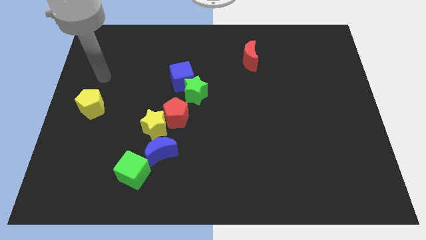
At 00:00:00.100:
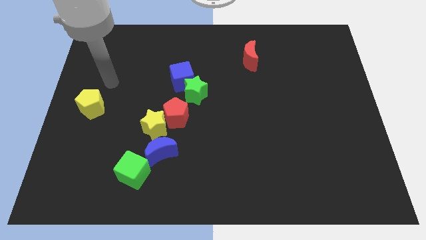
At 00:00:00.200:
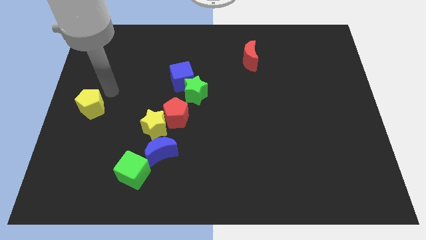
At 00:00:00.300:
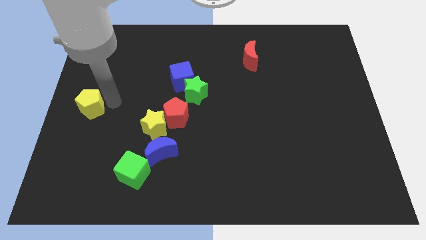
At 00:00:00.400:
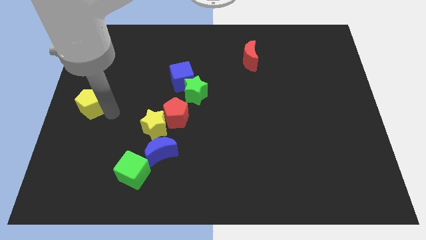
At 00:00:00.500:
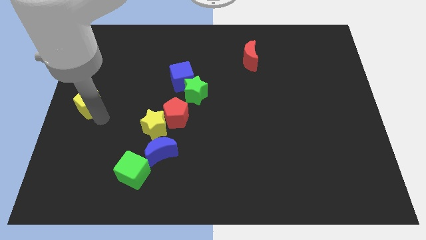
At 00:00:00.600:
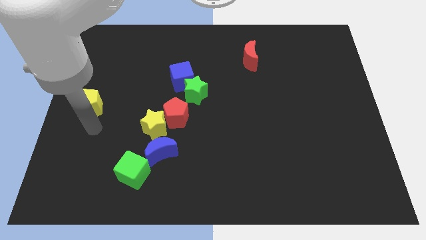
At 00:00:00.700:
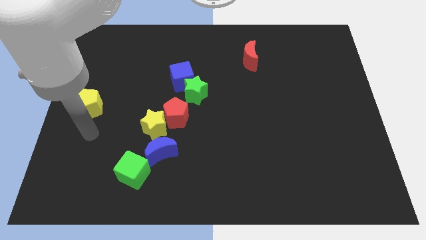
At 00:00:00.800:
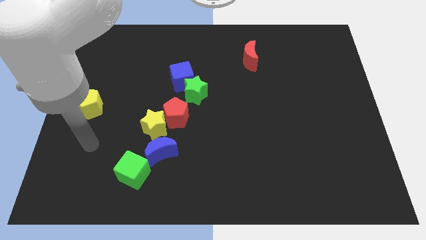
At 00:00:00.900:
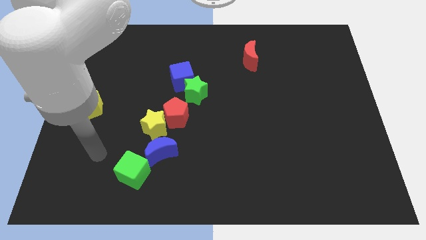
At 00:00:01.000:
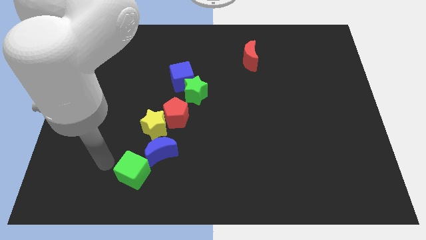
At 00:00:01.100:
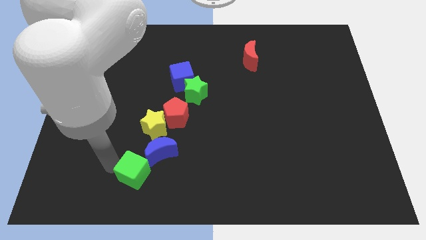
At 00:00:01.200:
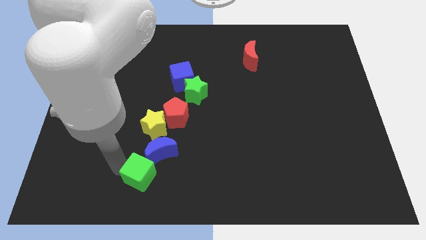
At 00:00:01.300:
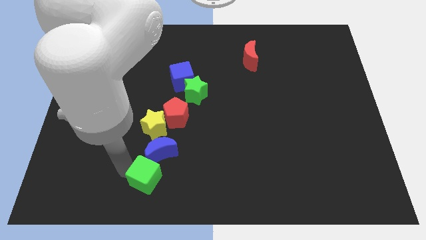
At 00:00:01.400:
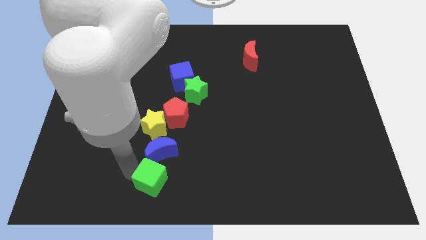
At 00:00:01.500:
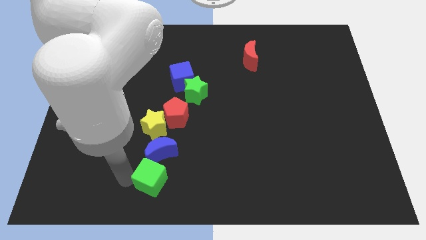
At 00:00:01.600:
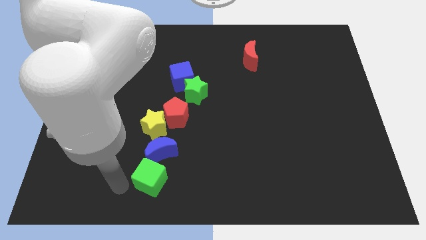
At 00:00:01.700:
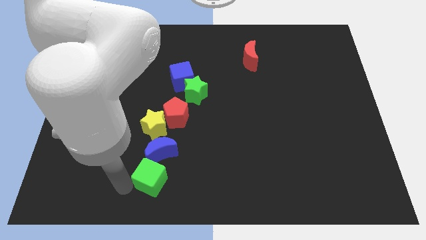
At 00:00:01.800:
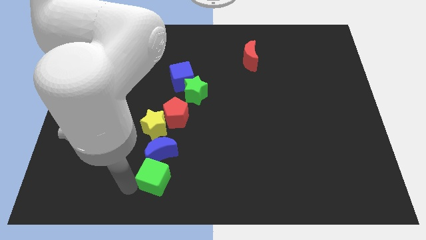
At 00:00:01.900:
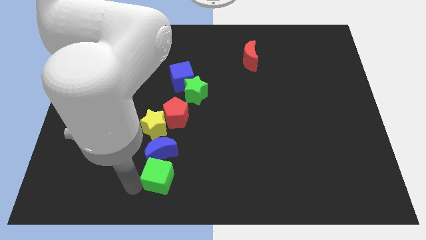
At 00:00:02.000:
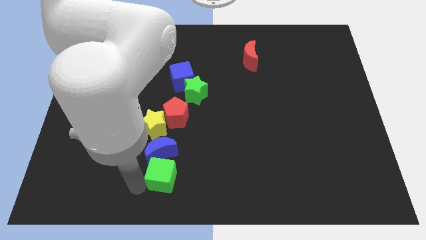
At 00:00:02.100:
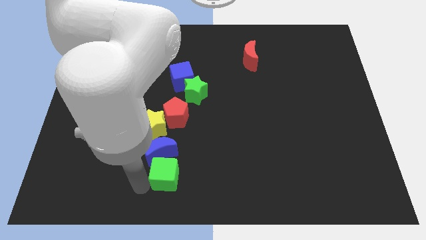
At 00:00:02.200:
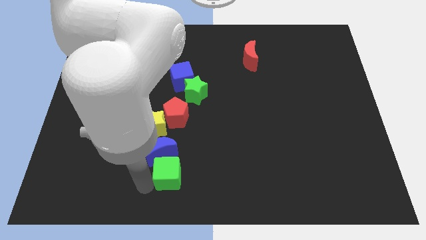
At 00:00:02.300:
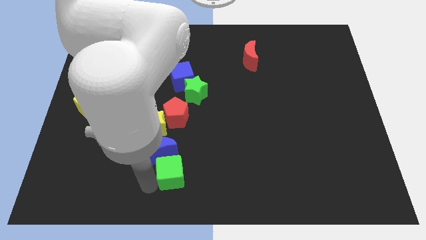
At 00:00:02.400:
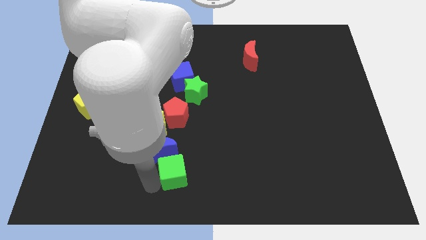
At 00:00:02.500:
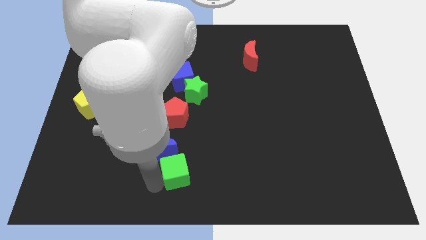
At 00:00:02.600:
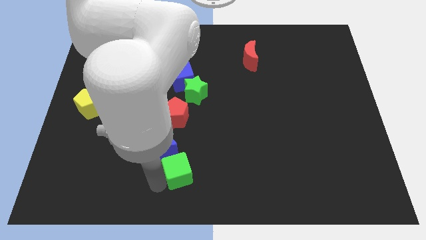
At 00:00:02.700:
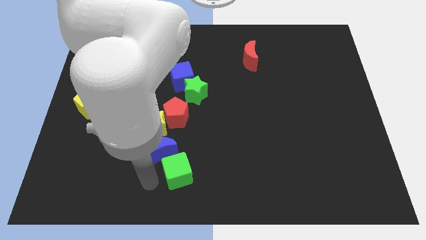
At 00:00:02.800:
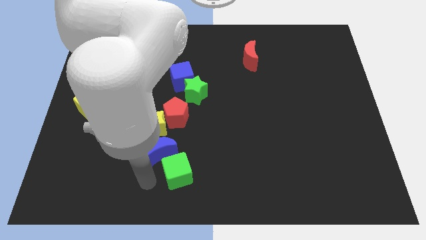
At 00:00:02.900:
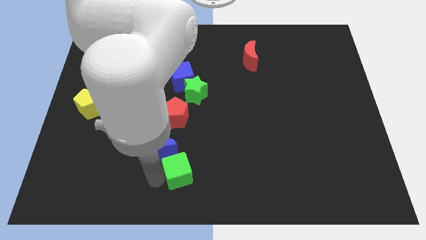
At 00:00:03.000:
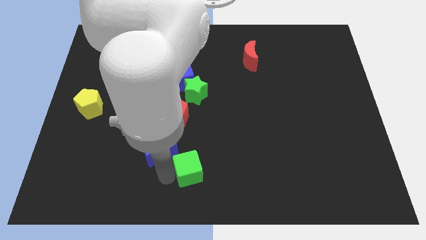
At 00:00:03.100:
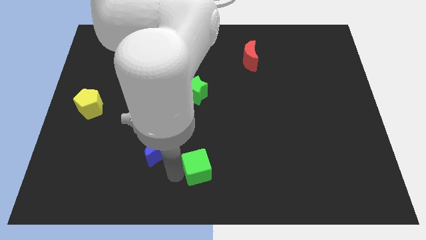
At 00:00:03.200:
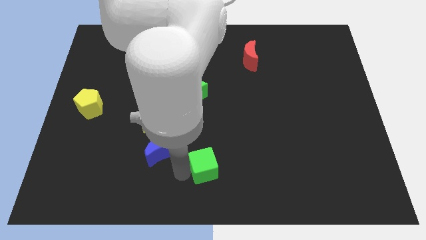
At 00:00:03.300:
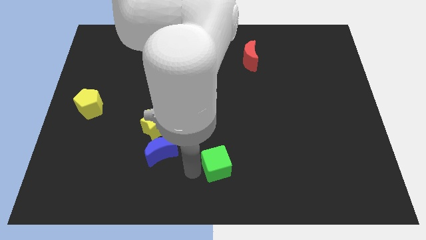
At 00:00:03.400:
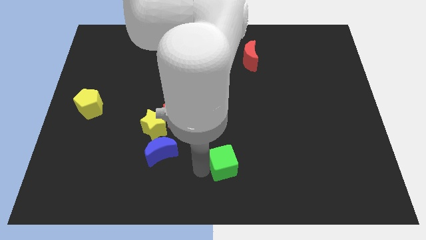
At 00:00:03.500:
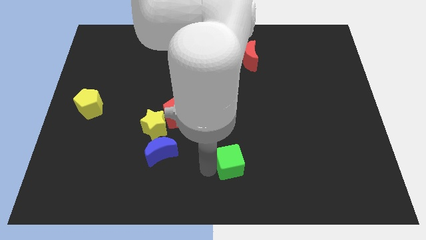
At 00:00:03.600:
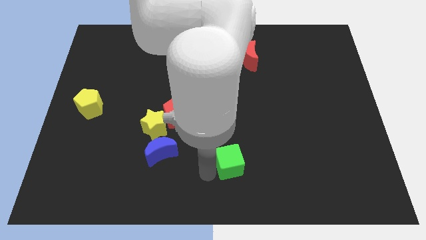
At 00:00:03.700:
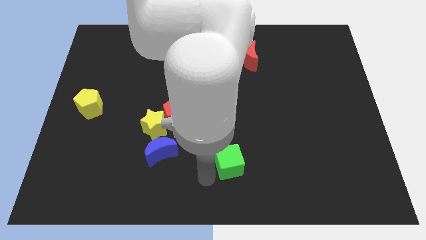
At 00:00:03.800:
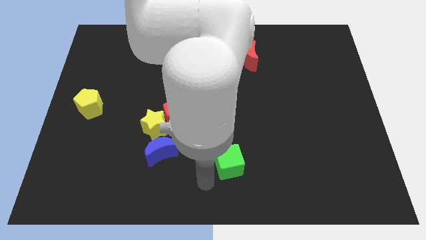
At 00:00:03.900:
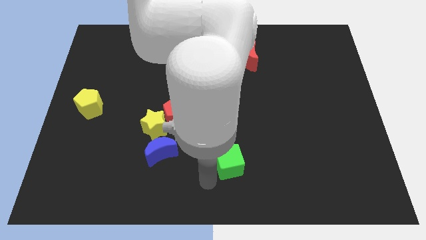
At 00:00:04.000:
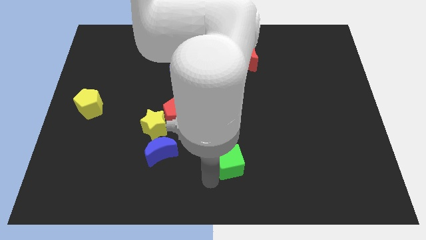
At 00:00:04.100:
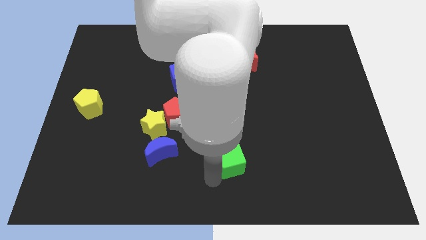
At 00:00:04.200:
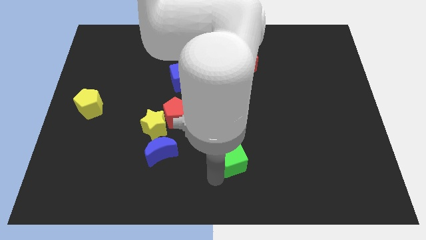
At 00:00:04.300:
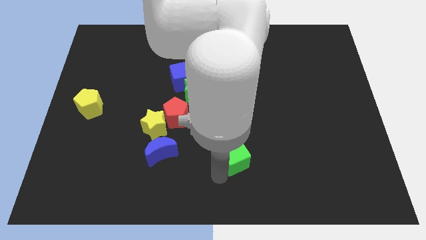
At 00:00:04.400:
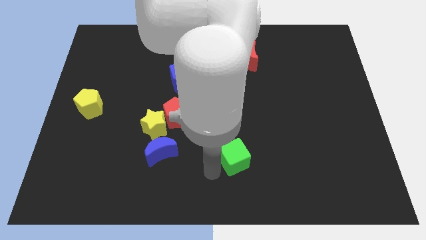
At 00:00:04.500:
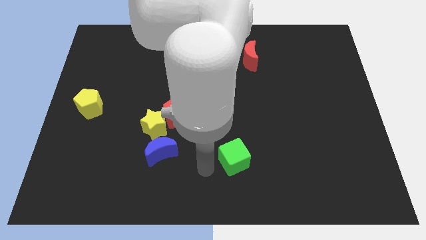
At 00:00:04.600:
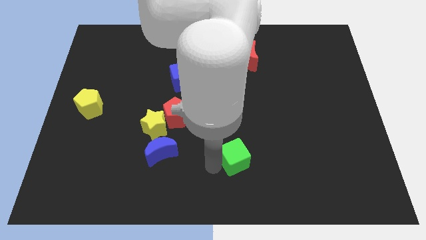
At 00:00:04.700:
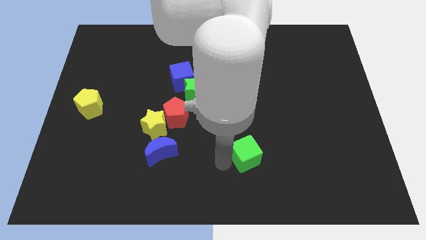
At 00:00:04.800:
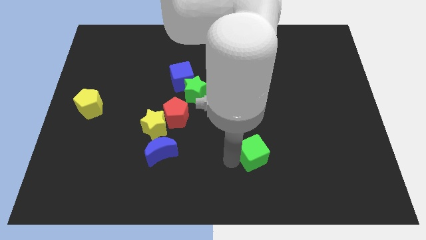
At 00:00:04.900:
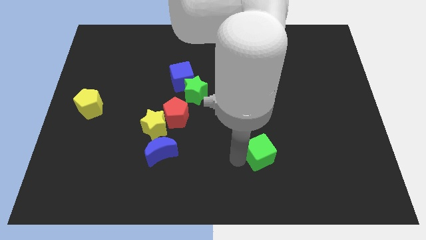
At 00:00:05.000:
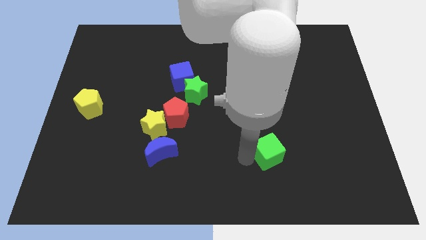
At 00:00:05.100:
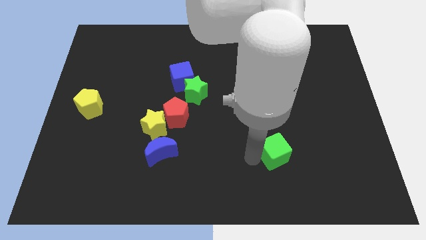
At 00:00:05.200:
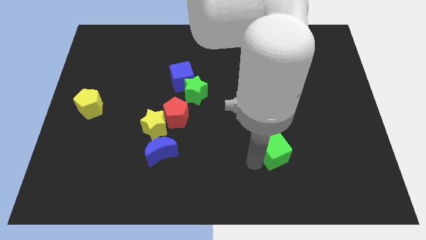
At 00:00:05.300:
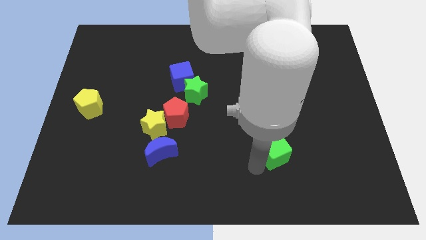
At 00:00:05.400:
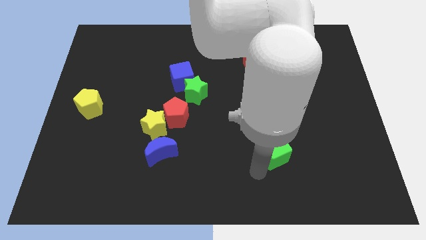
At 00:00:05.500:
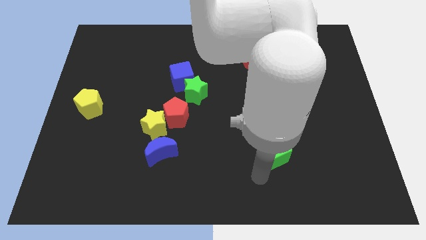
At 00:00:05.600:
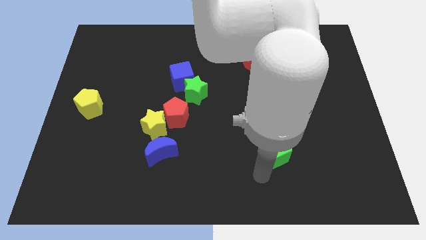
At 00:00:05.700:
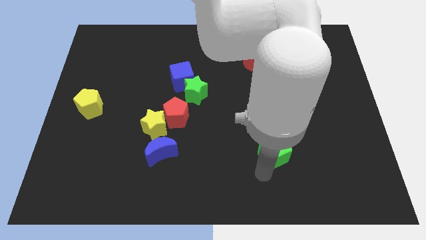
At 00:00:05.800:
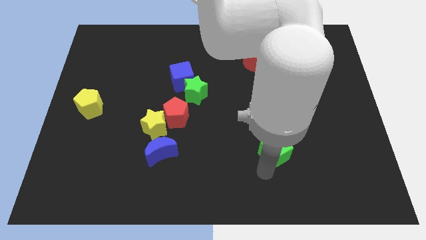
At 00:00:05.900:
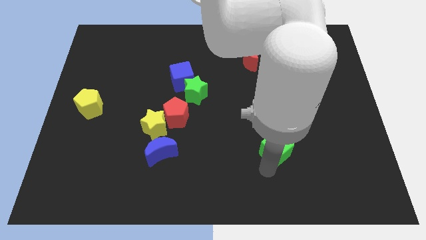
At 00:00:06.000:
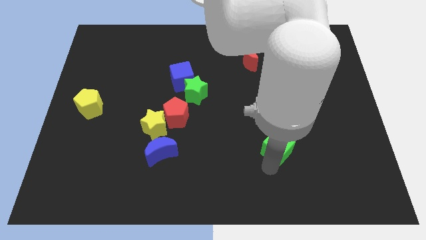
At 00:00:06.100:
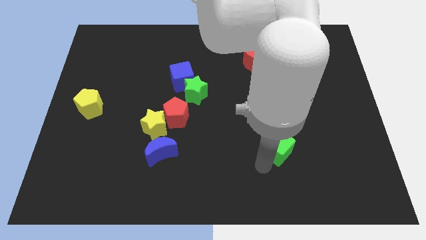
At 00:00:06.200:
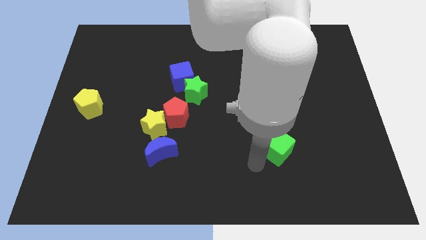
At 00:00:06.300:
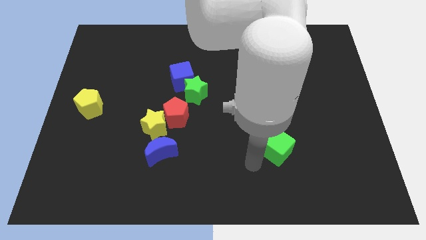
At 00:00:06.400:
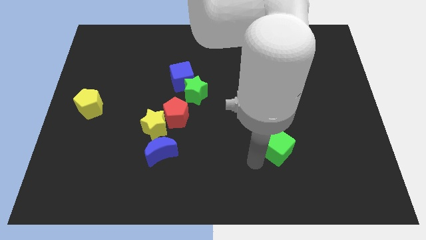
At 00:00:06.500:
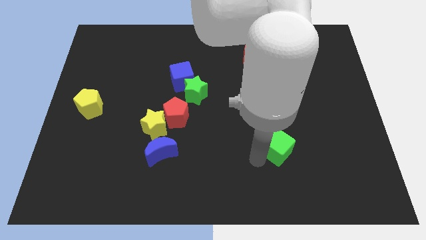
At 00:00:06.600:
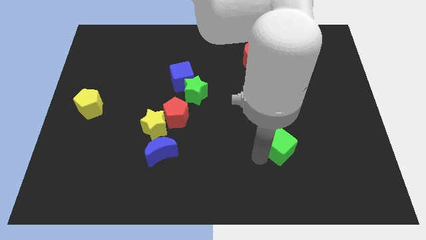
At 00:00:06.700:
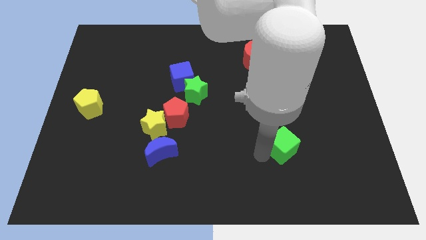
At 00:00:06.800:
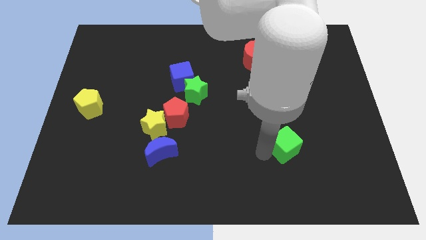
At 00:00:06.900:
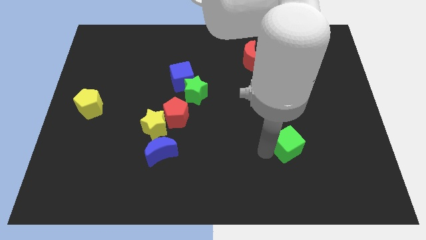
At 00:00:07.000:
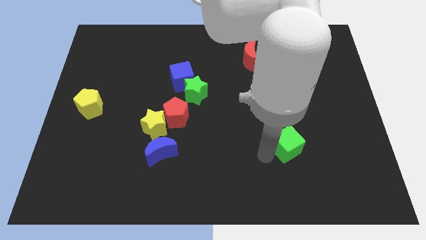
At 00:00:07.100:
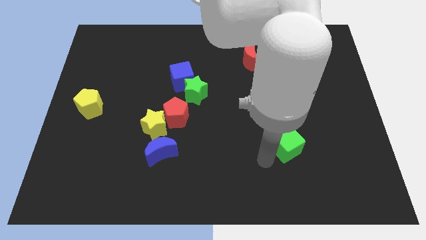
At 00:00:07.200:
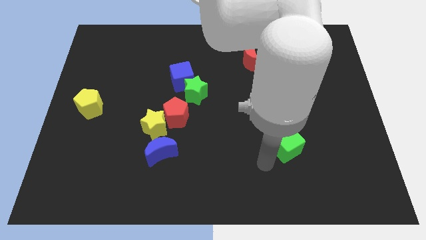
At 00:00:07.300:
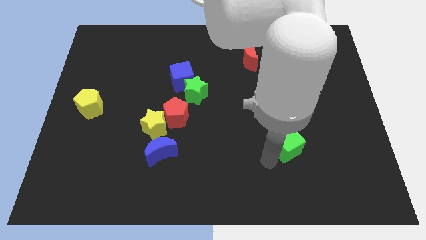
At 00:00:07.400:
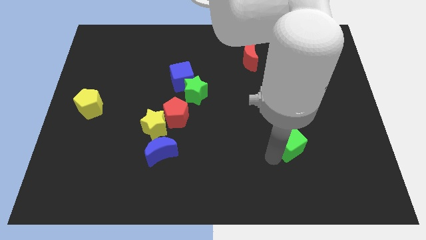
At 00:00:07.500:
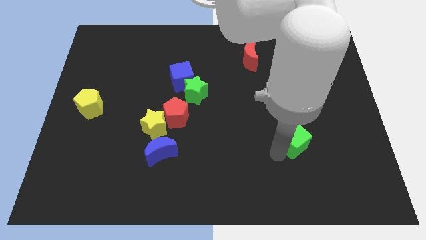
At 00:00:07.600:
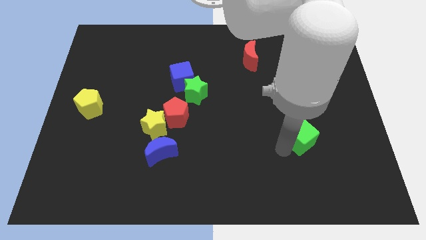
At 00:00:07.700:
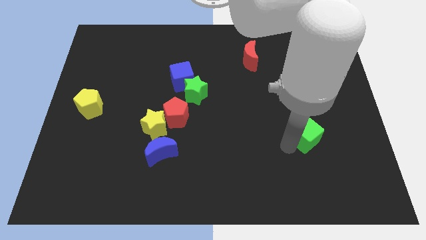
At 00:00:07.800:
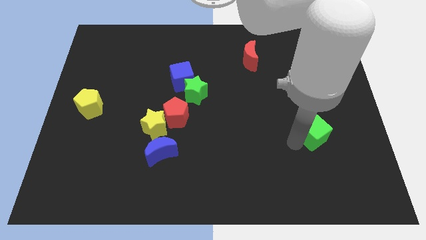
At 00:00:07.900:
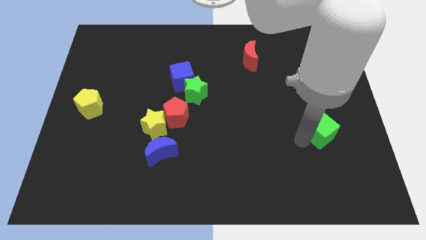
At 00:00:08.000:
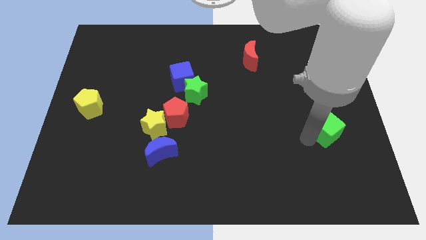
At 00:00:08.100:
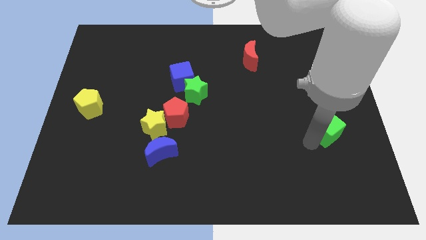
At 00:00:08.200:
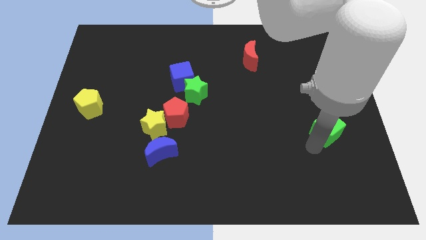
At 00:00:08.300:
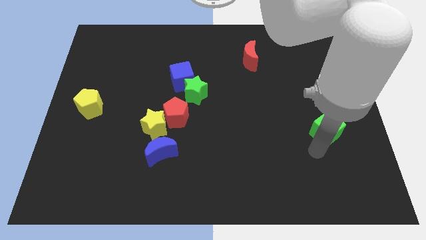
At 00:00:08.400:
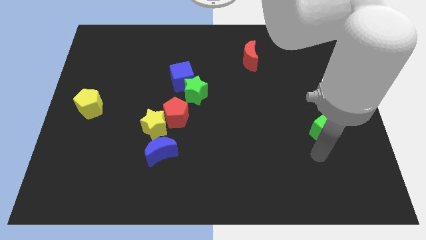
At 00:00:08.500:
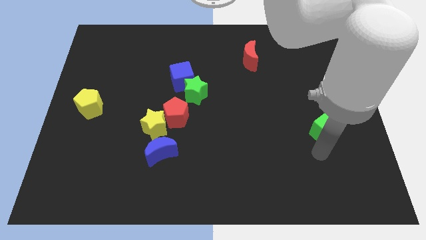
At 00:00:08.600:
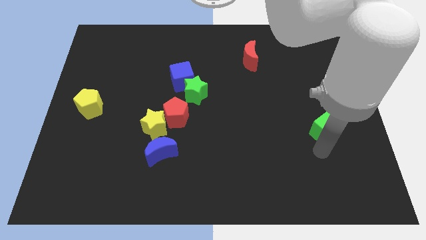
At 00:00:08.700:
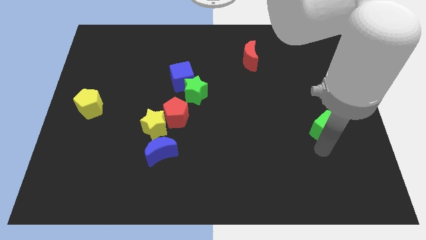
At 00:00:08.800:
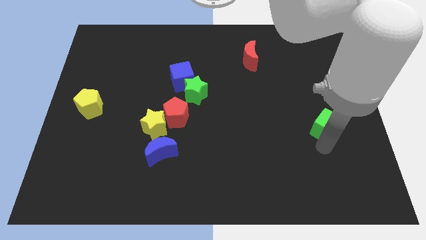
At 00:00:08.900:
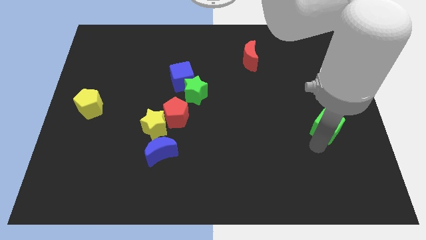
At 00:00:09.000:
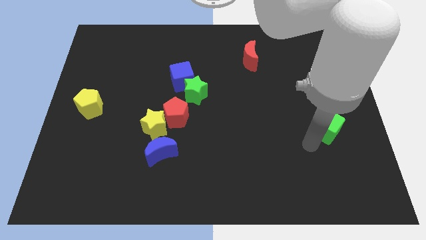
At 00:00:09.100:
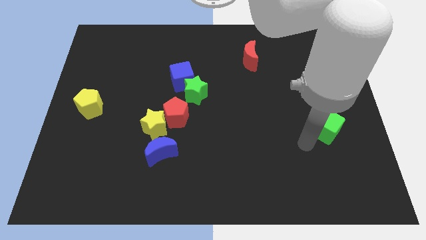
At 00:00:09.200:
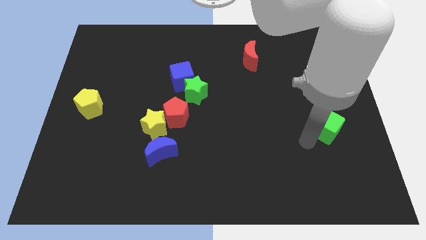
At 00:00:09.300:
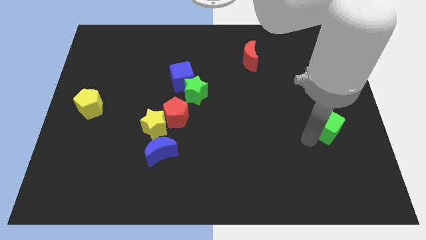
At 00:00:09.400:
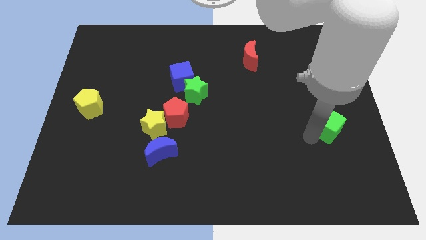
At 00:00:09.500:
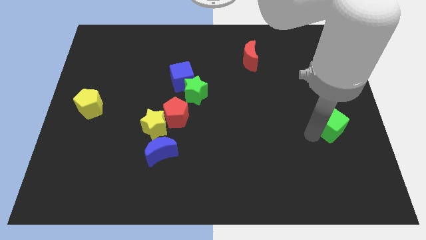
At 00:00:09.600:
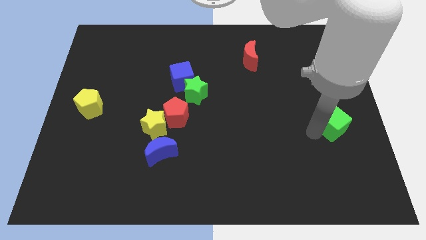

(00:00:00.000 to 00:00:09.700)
push the green cube to the center right
